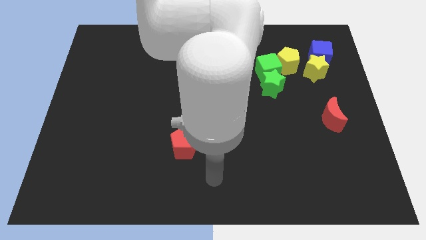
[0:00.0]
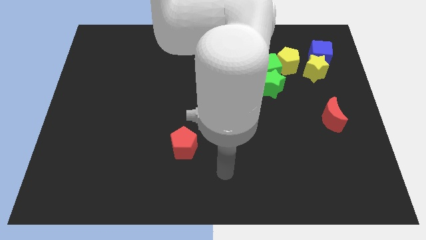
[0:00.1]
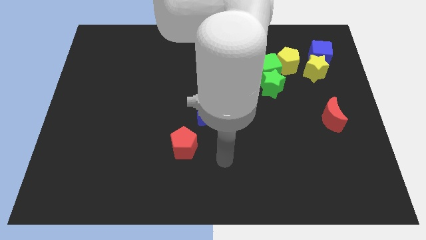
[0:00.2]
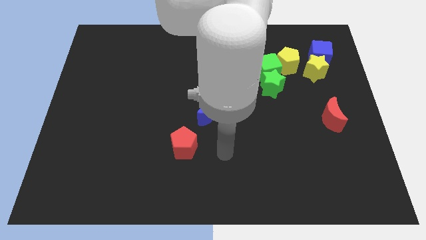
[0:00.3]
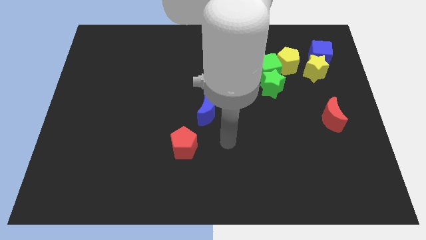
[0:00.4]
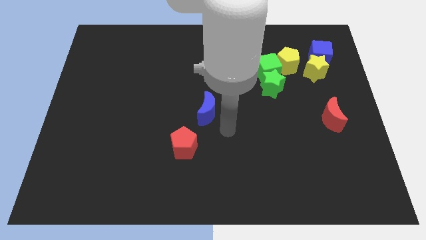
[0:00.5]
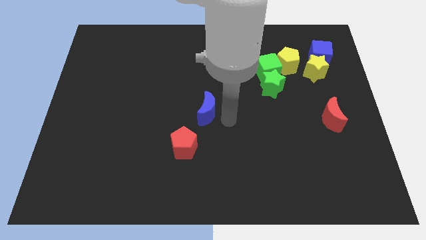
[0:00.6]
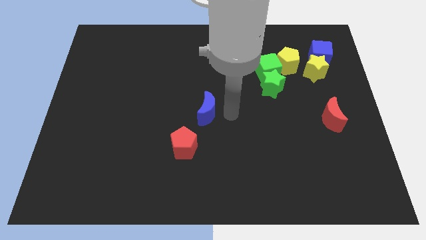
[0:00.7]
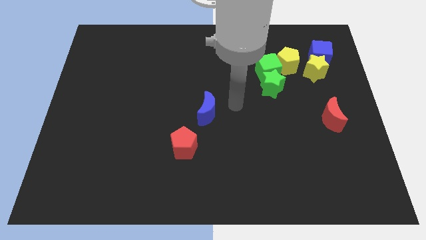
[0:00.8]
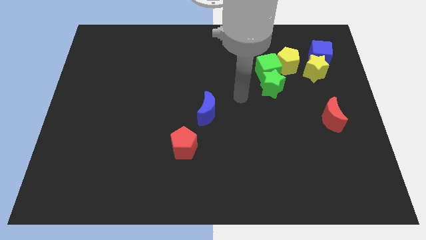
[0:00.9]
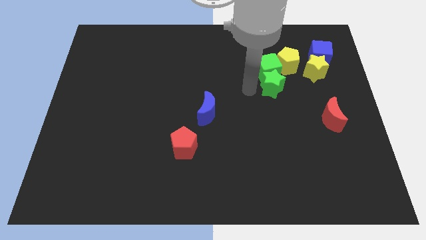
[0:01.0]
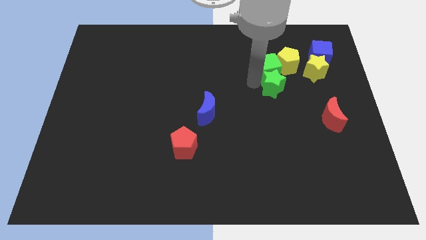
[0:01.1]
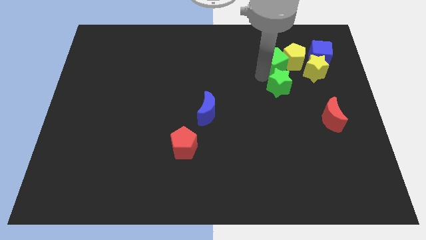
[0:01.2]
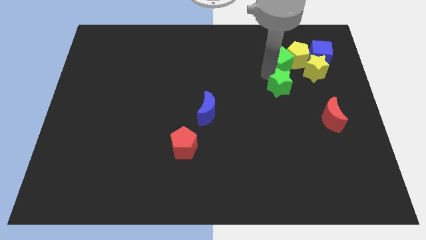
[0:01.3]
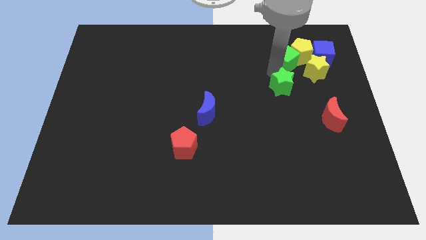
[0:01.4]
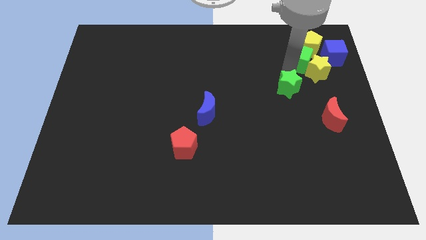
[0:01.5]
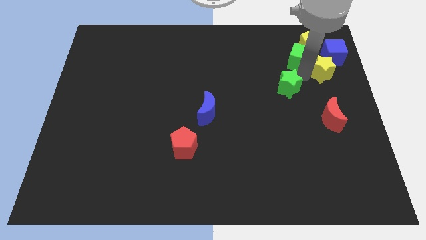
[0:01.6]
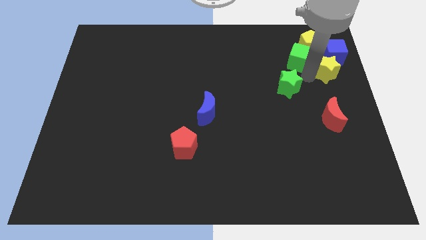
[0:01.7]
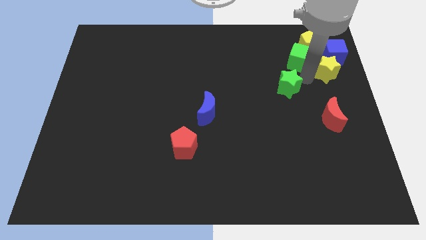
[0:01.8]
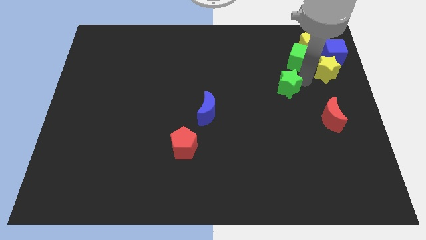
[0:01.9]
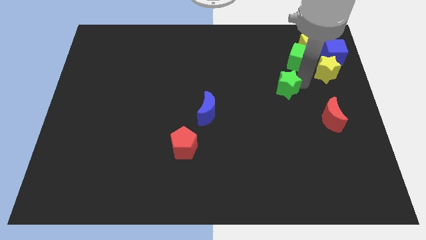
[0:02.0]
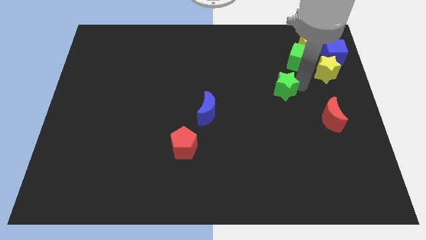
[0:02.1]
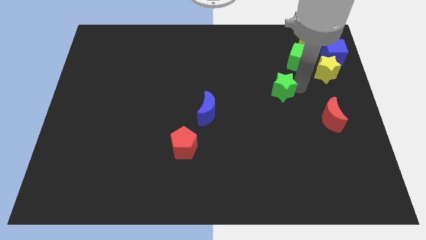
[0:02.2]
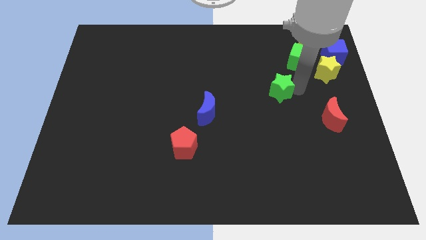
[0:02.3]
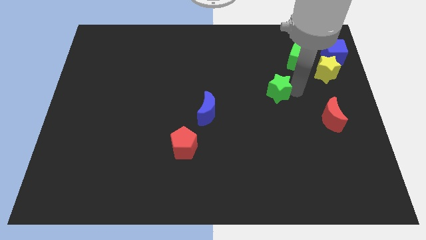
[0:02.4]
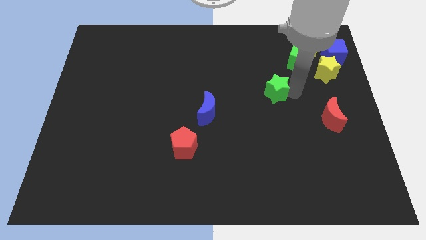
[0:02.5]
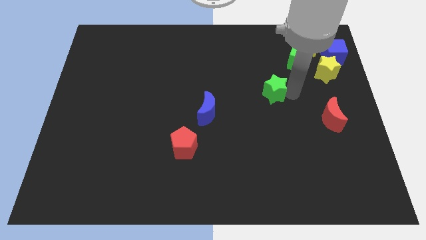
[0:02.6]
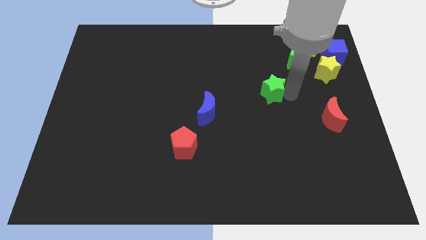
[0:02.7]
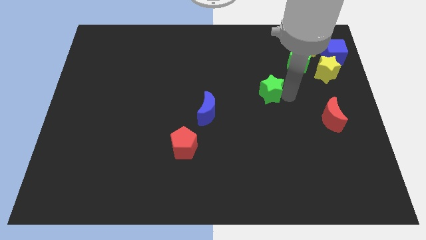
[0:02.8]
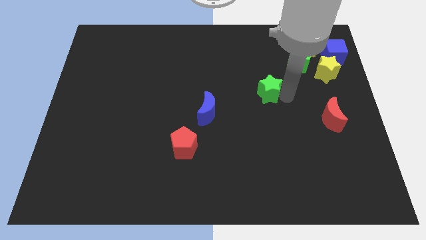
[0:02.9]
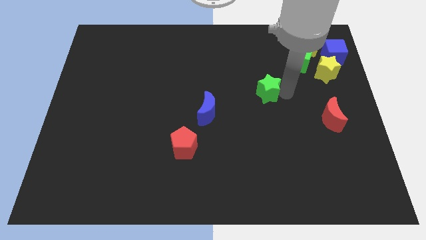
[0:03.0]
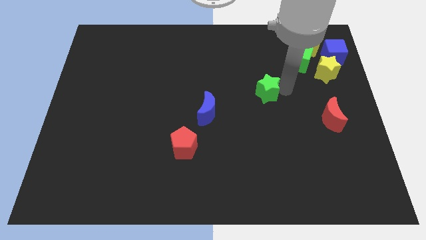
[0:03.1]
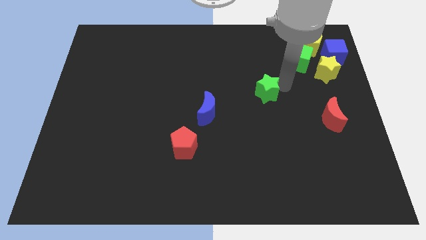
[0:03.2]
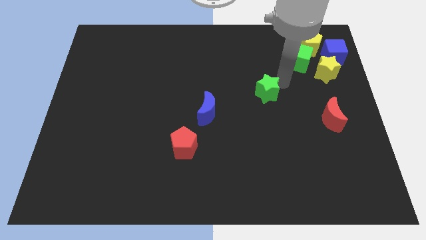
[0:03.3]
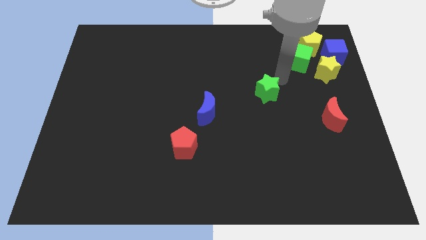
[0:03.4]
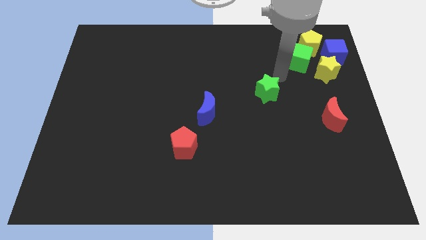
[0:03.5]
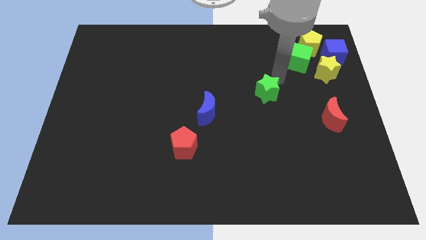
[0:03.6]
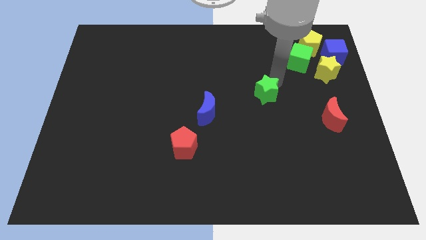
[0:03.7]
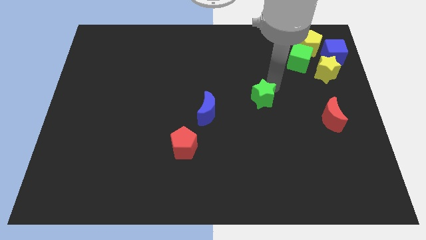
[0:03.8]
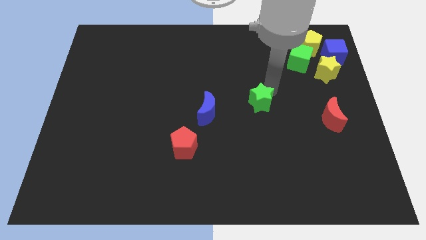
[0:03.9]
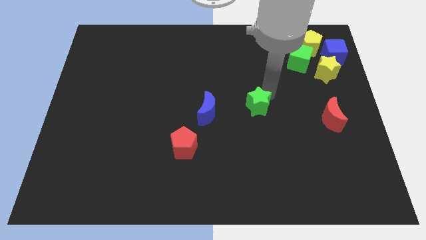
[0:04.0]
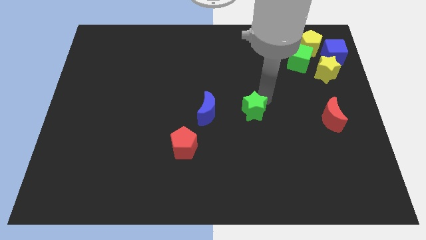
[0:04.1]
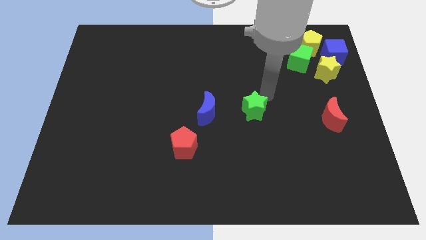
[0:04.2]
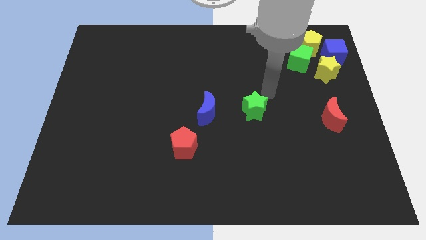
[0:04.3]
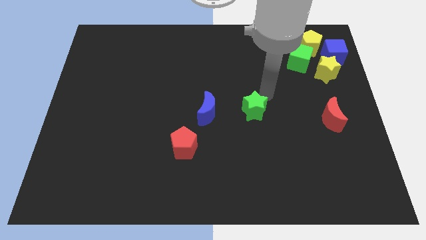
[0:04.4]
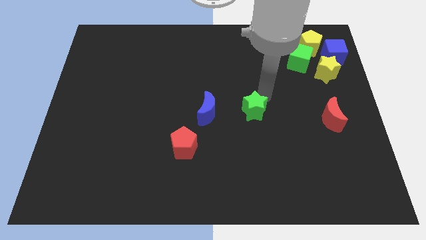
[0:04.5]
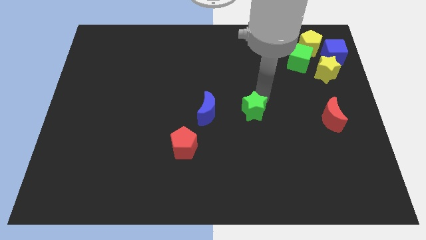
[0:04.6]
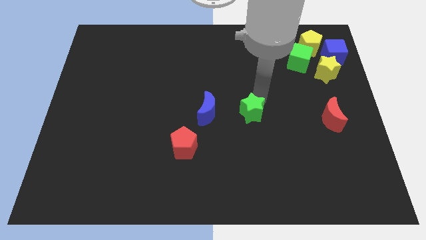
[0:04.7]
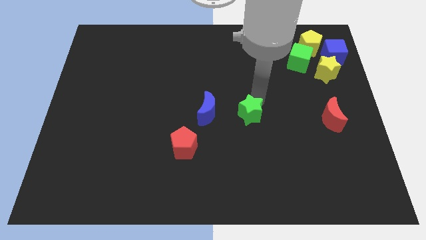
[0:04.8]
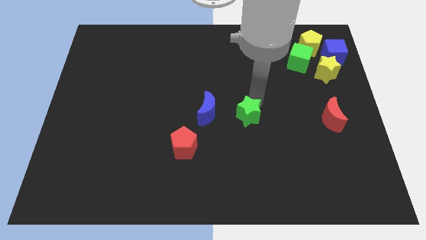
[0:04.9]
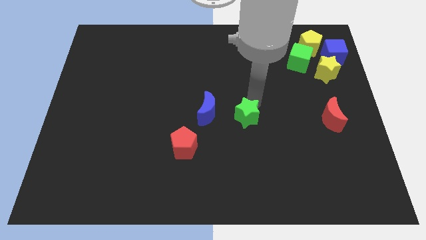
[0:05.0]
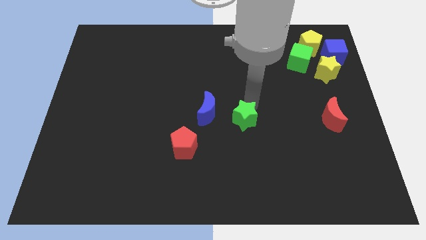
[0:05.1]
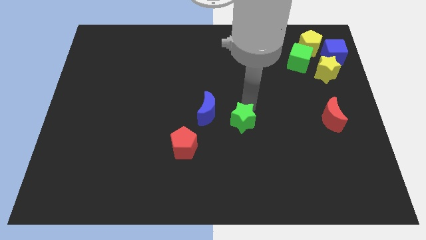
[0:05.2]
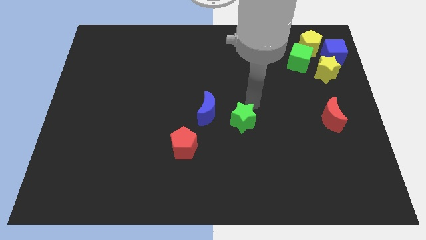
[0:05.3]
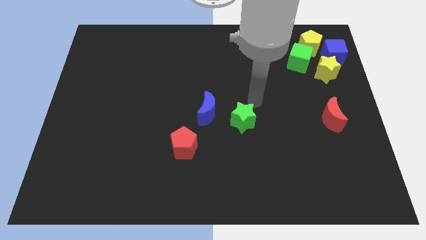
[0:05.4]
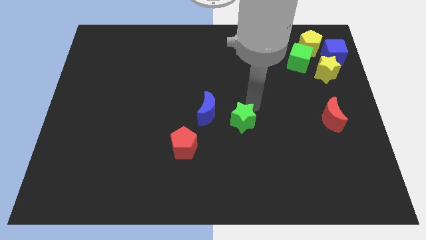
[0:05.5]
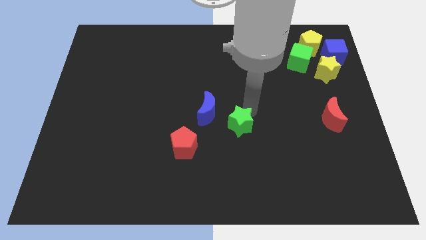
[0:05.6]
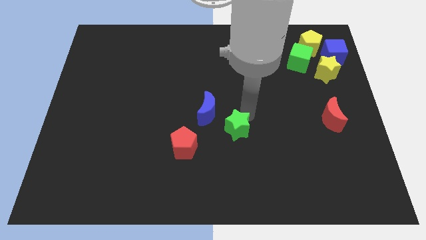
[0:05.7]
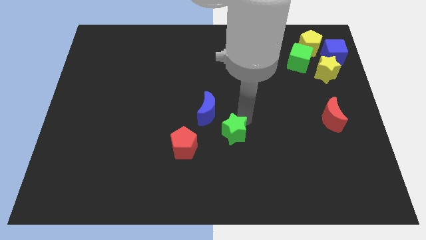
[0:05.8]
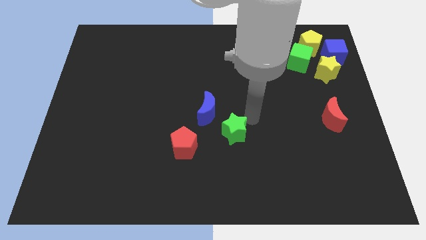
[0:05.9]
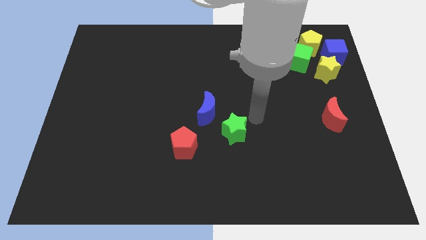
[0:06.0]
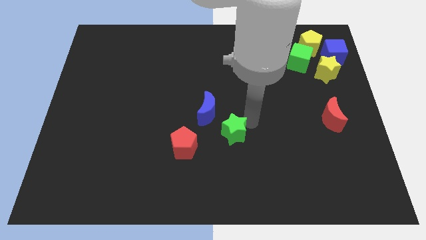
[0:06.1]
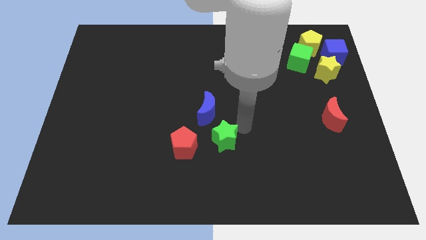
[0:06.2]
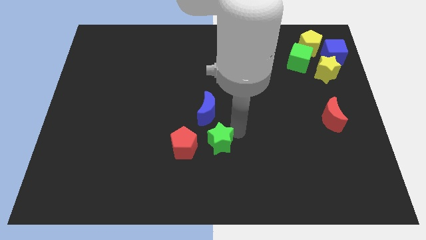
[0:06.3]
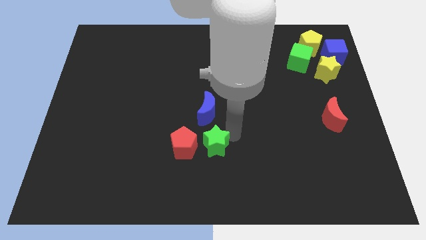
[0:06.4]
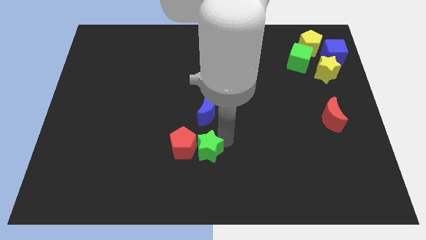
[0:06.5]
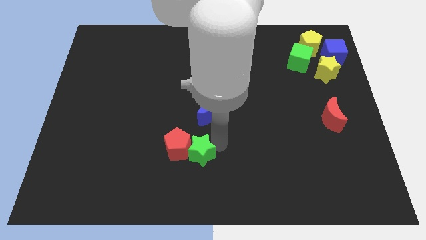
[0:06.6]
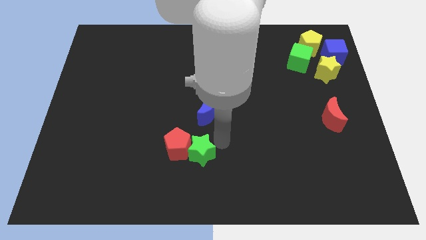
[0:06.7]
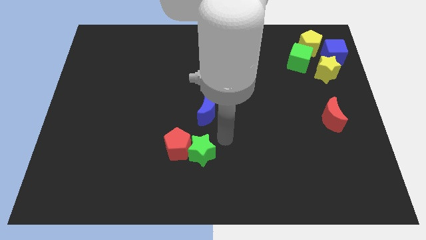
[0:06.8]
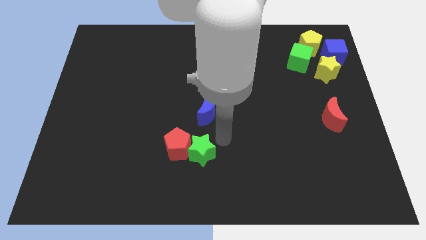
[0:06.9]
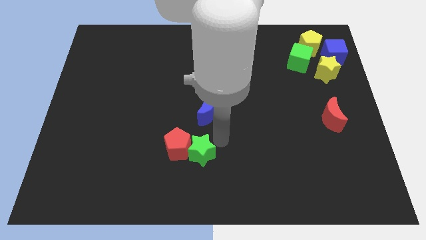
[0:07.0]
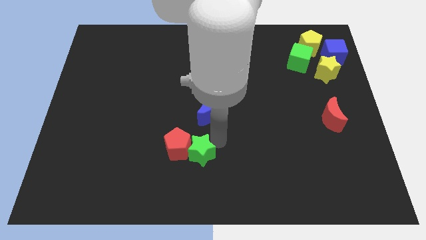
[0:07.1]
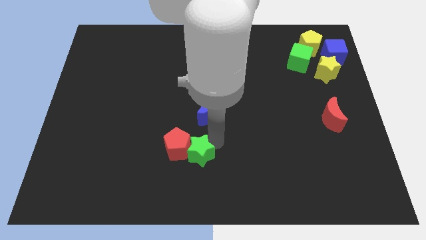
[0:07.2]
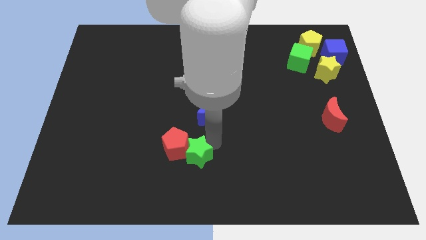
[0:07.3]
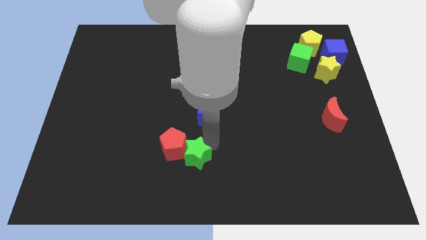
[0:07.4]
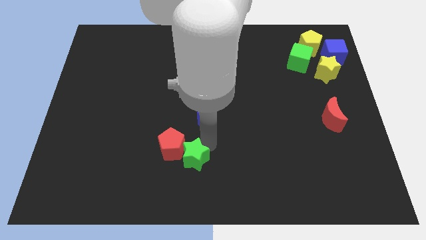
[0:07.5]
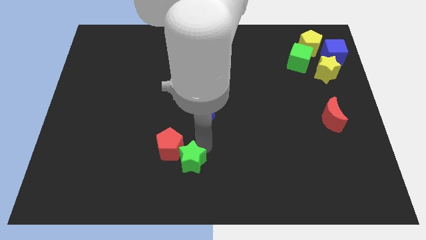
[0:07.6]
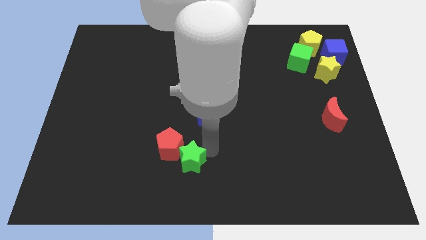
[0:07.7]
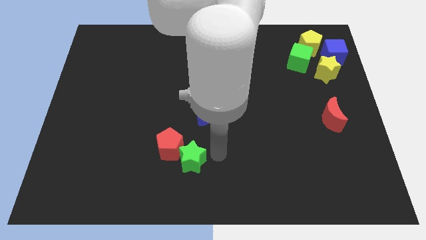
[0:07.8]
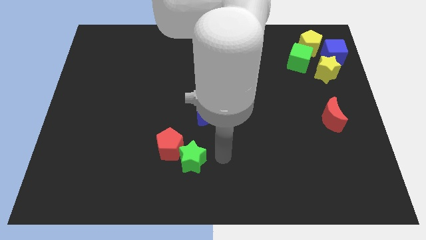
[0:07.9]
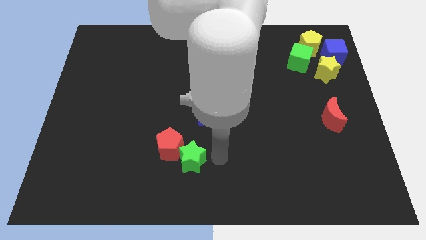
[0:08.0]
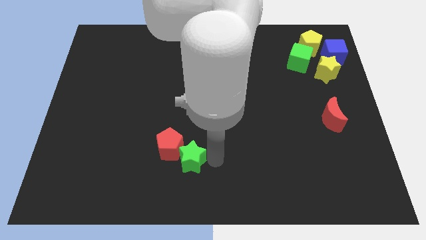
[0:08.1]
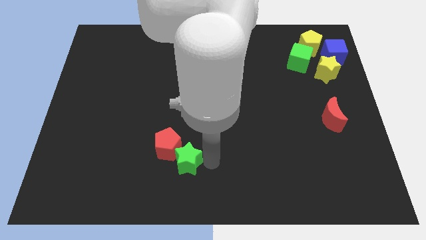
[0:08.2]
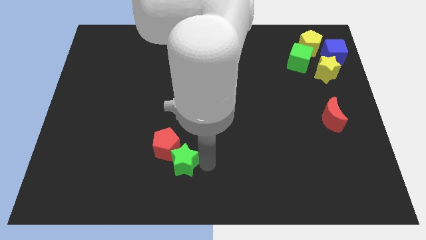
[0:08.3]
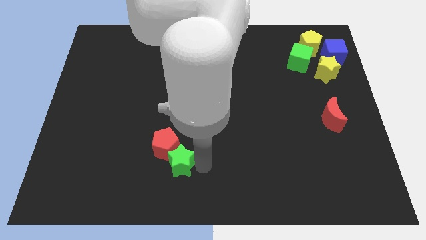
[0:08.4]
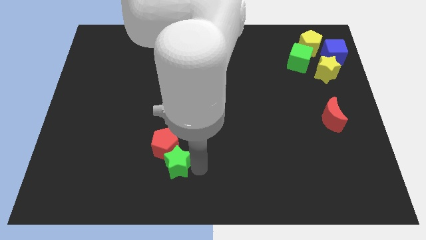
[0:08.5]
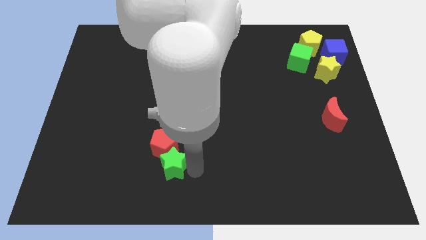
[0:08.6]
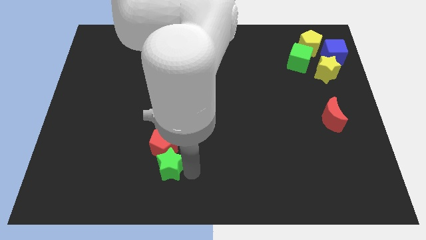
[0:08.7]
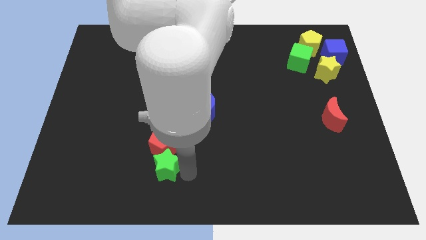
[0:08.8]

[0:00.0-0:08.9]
push the green star diagonally down and to the left of the red pentagon
